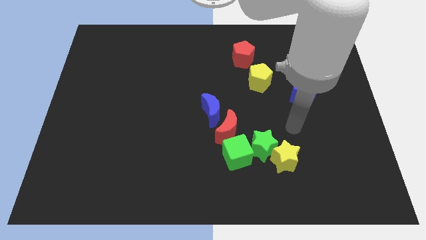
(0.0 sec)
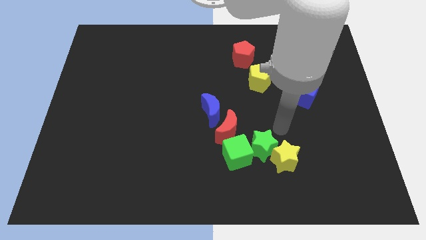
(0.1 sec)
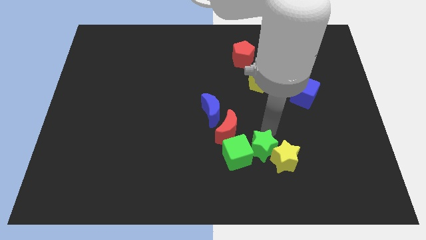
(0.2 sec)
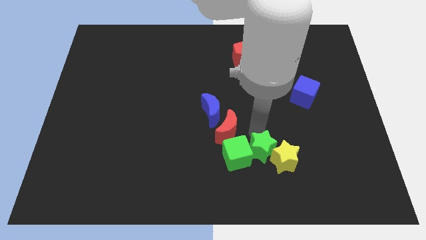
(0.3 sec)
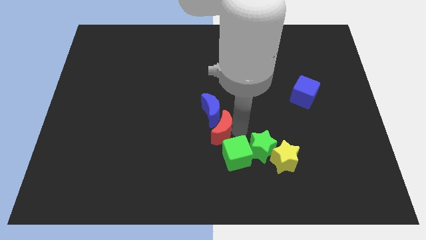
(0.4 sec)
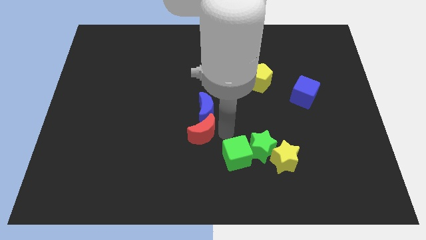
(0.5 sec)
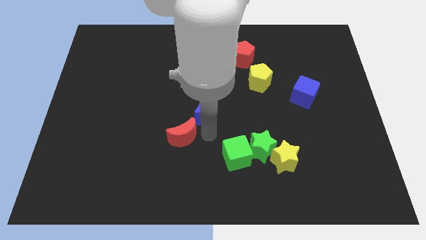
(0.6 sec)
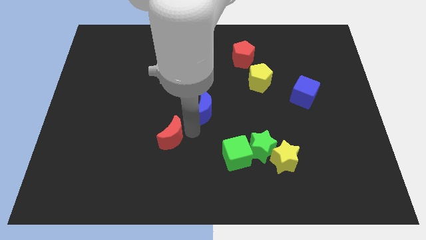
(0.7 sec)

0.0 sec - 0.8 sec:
pull the blue moon apart from the red moon

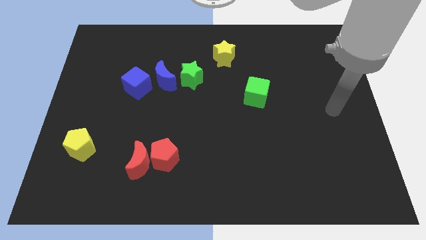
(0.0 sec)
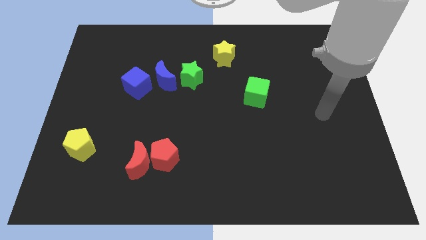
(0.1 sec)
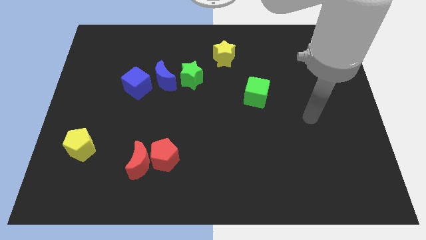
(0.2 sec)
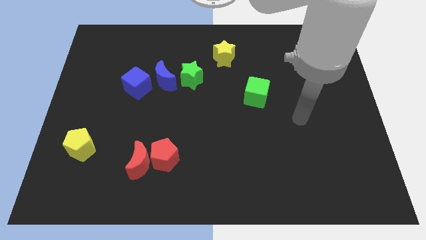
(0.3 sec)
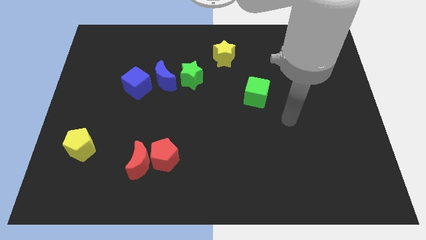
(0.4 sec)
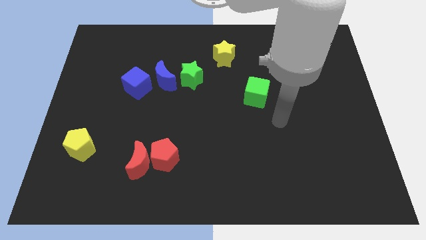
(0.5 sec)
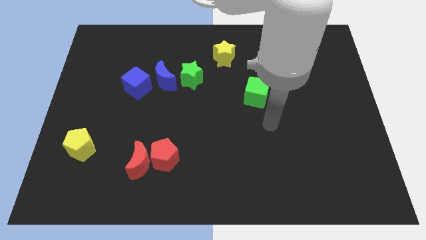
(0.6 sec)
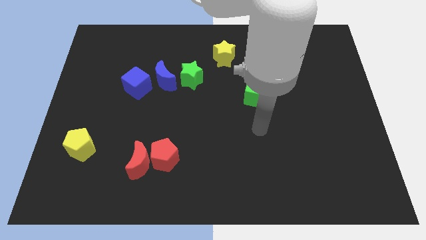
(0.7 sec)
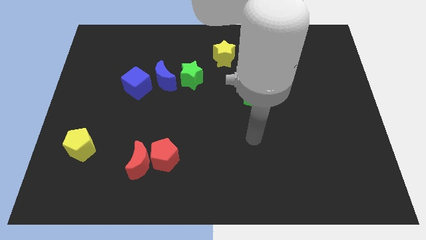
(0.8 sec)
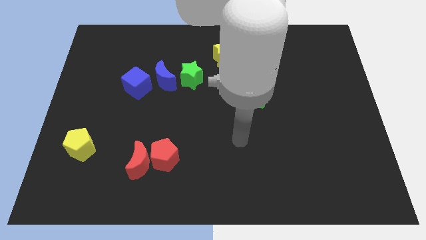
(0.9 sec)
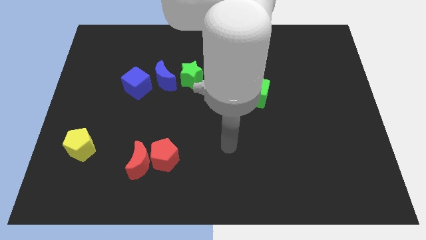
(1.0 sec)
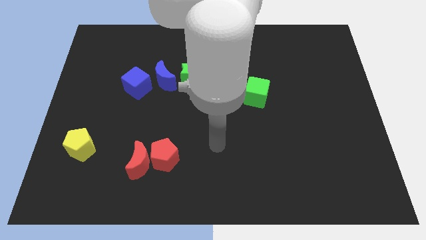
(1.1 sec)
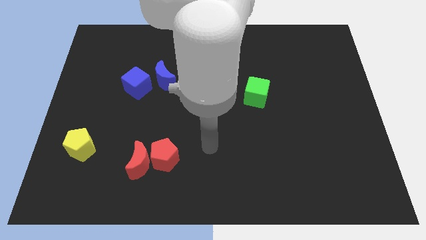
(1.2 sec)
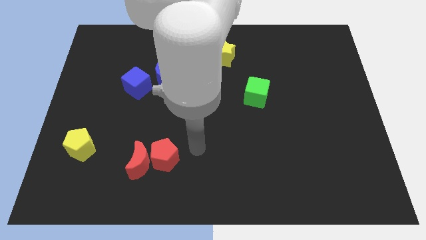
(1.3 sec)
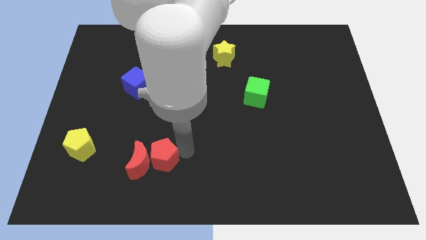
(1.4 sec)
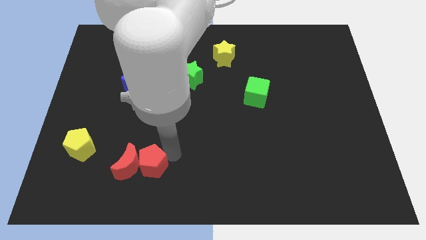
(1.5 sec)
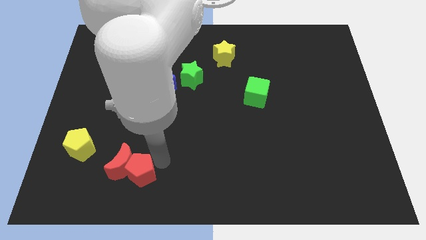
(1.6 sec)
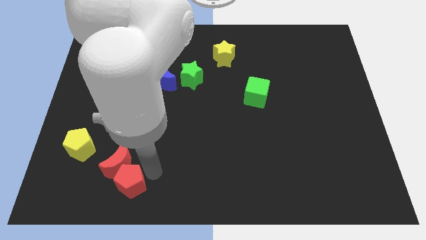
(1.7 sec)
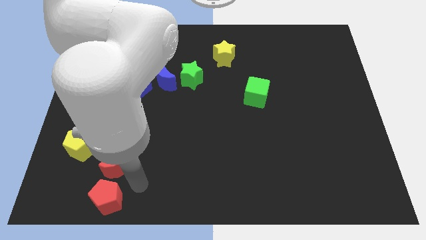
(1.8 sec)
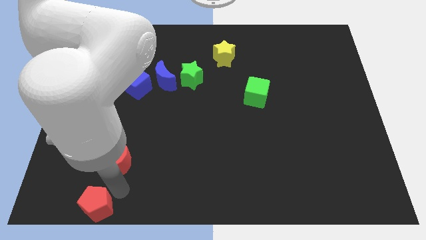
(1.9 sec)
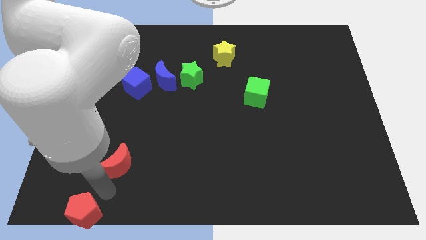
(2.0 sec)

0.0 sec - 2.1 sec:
separate the red moon from the red pentagon

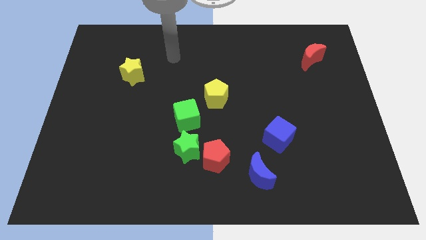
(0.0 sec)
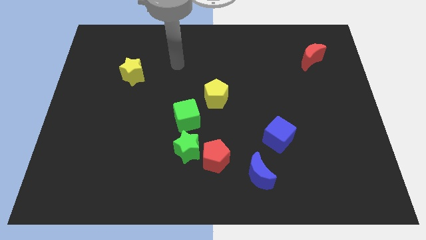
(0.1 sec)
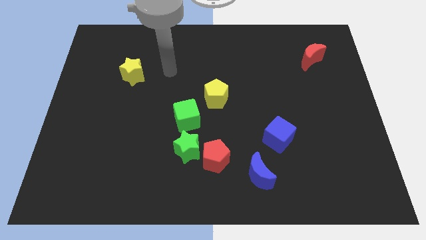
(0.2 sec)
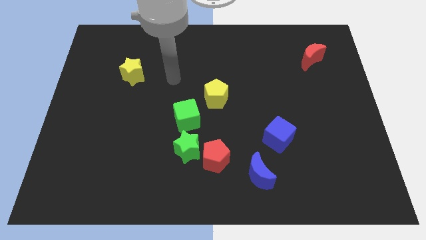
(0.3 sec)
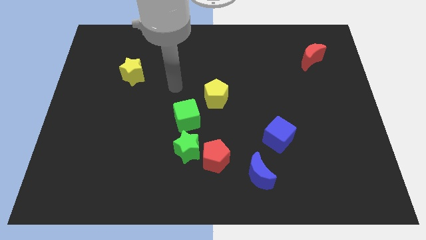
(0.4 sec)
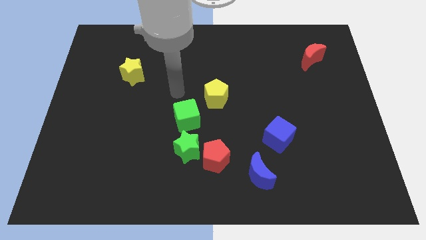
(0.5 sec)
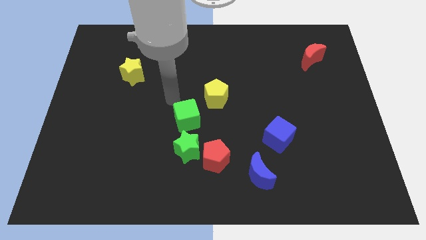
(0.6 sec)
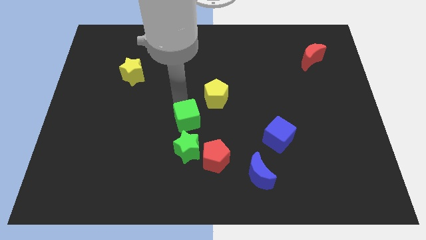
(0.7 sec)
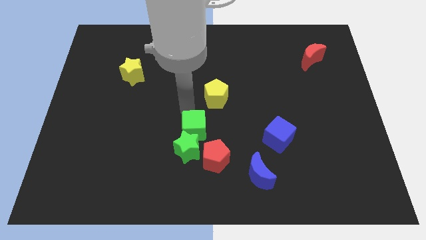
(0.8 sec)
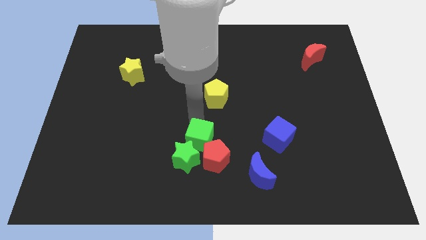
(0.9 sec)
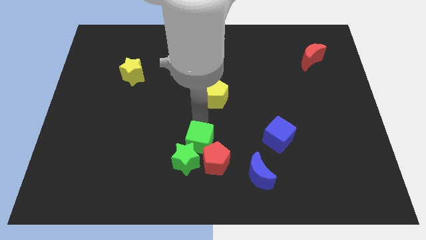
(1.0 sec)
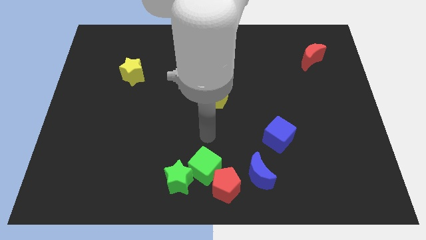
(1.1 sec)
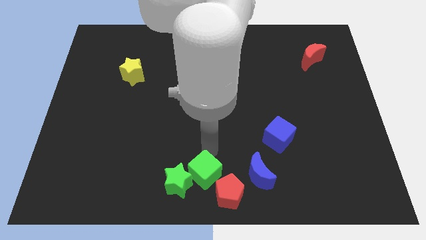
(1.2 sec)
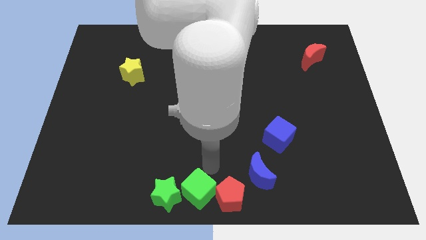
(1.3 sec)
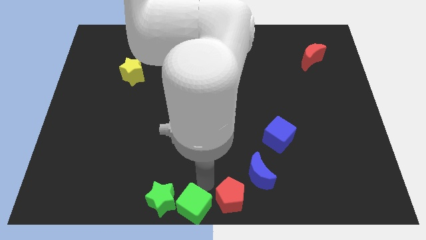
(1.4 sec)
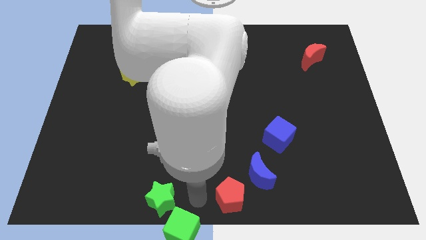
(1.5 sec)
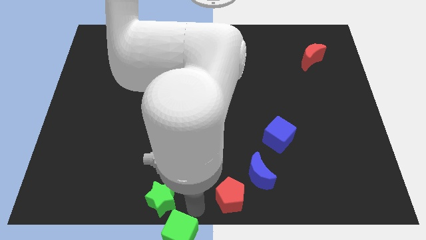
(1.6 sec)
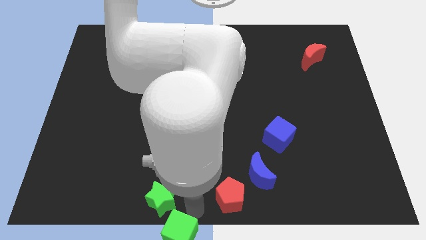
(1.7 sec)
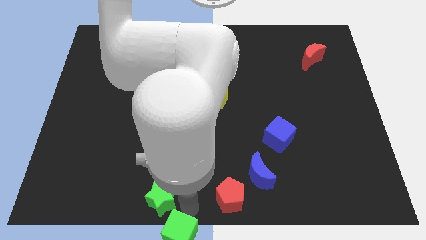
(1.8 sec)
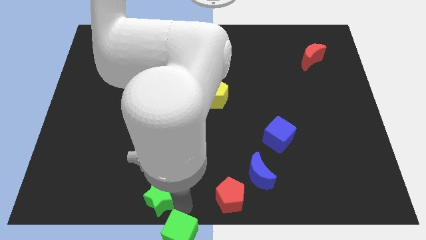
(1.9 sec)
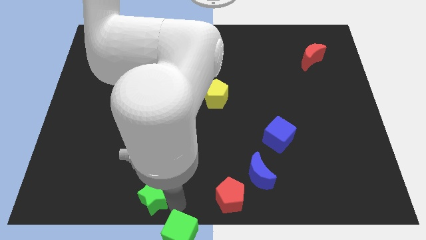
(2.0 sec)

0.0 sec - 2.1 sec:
separate the green star from the red pentagon and green cube

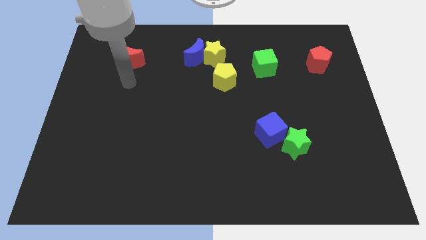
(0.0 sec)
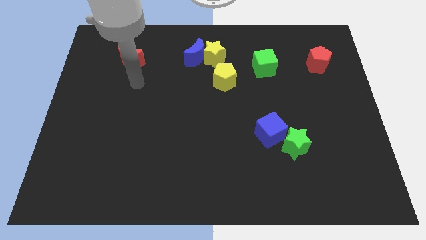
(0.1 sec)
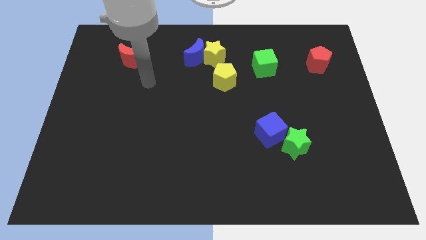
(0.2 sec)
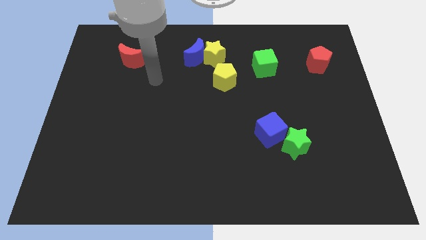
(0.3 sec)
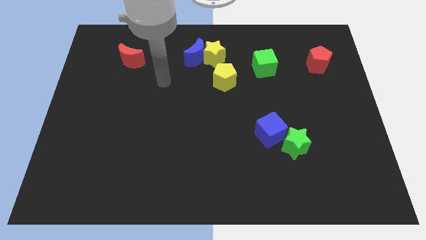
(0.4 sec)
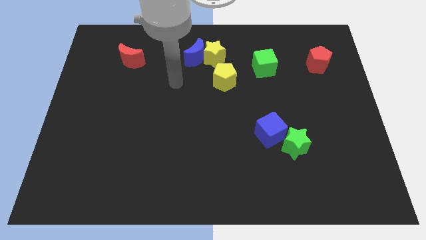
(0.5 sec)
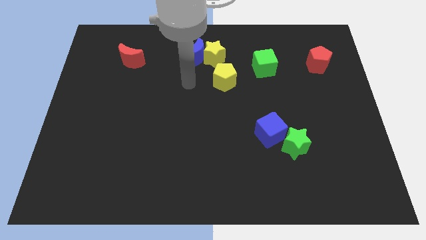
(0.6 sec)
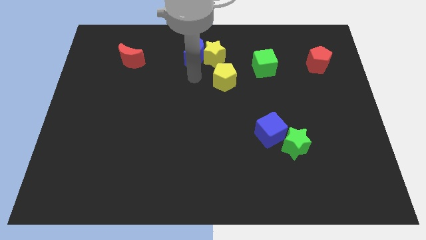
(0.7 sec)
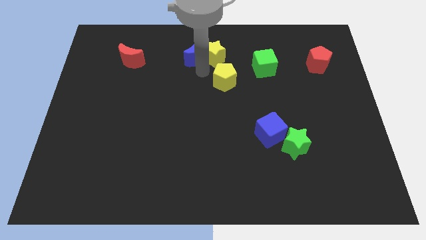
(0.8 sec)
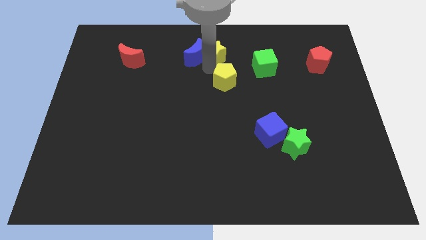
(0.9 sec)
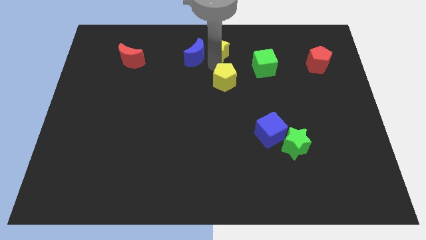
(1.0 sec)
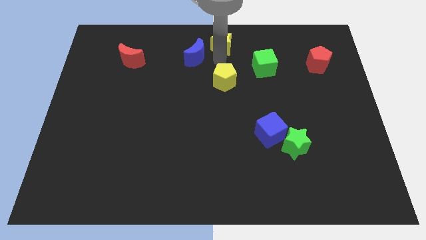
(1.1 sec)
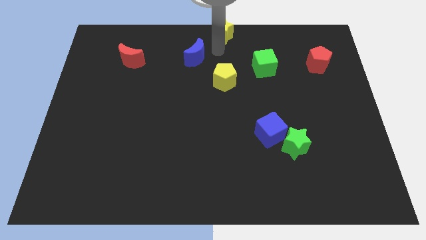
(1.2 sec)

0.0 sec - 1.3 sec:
separate the blue moon from the yellow star

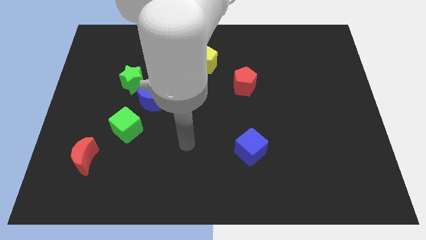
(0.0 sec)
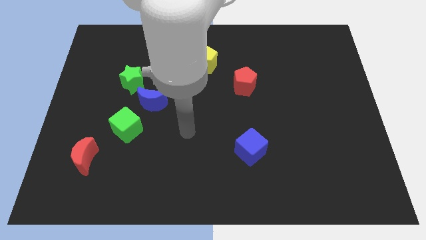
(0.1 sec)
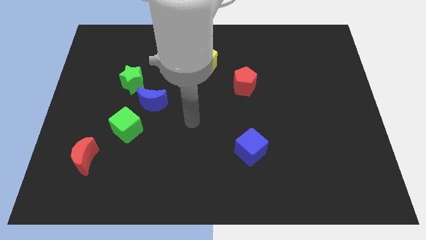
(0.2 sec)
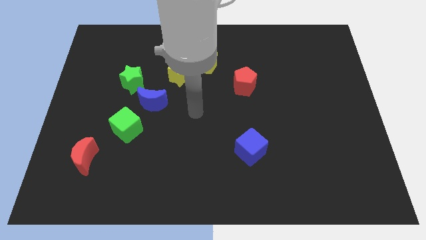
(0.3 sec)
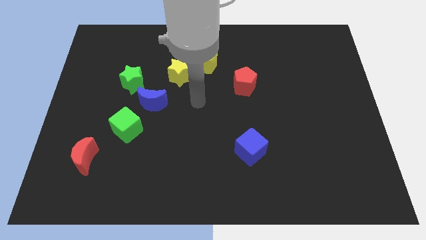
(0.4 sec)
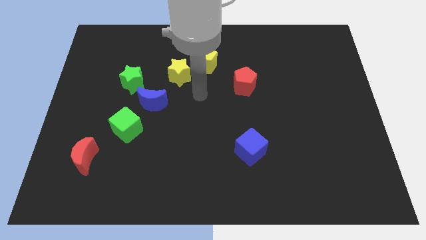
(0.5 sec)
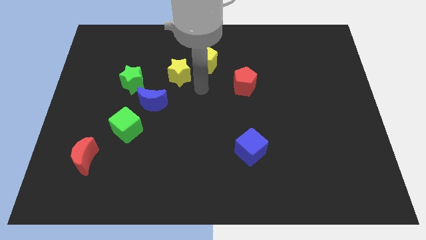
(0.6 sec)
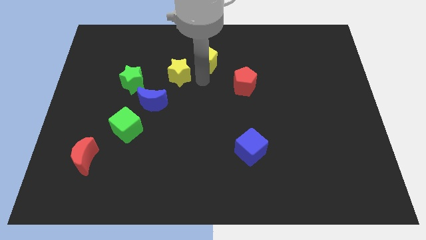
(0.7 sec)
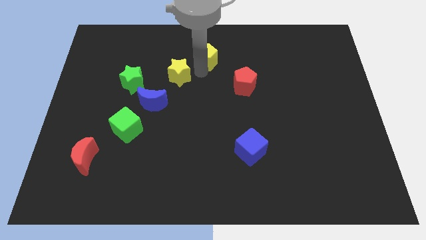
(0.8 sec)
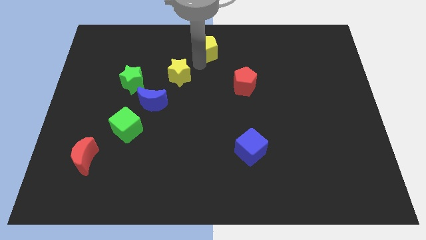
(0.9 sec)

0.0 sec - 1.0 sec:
pull the yellow star apart from the yellow pentagon

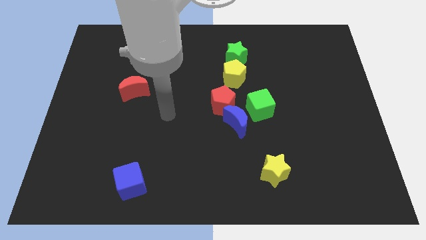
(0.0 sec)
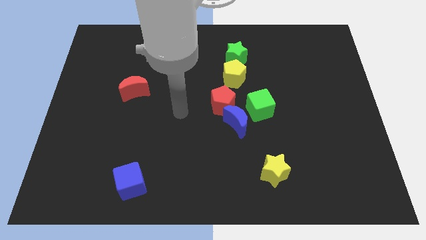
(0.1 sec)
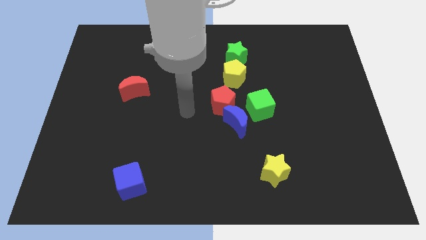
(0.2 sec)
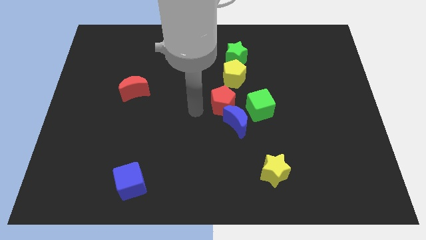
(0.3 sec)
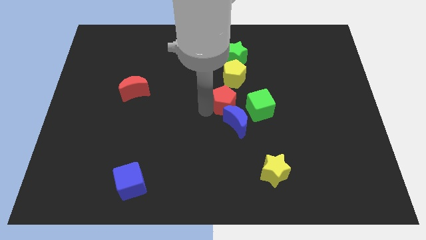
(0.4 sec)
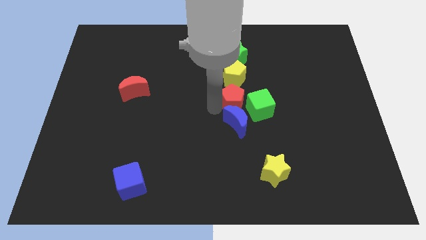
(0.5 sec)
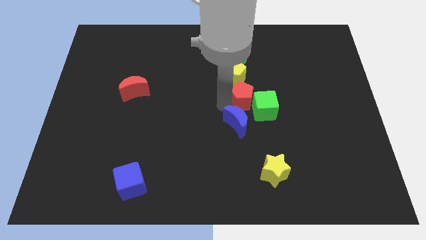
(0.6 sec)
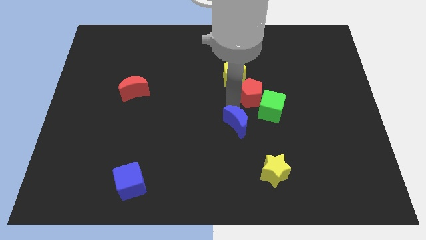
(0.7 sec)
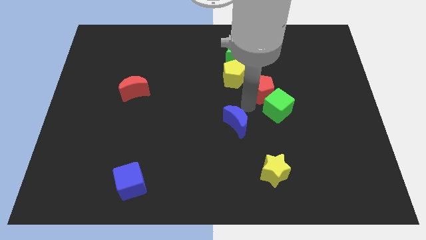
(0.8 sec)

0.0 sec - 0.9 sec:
pull the blue moon apart from the red pentagon and green cube

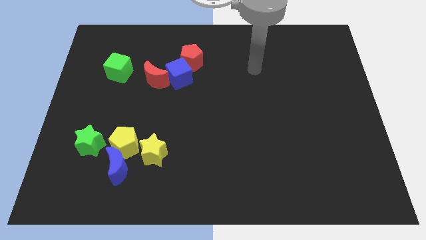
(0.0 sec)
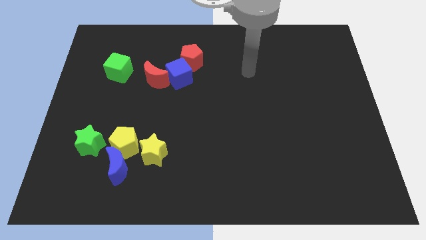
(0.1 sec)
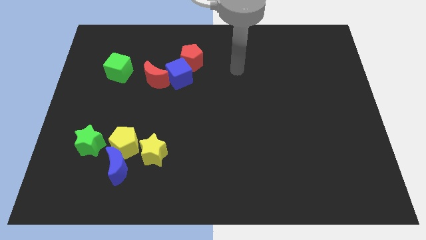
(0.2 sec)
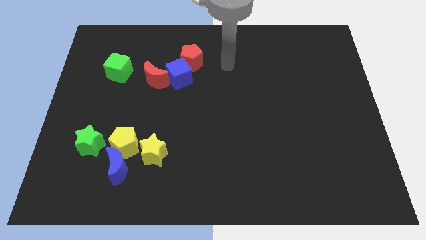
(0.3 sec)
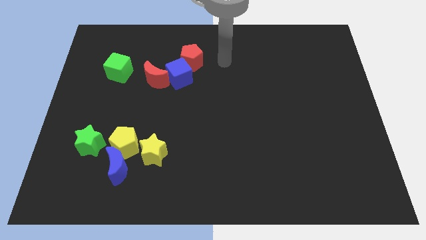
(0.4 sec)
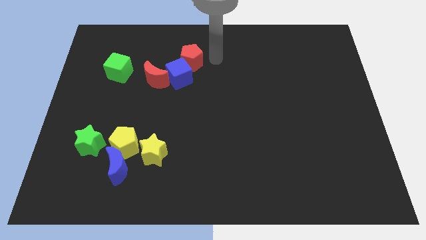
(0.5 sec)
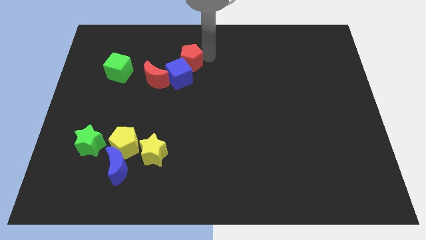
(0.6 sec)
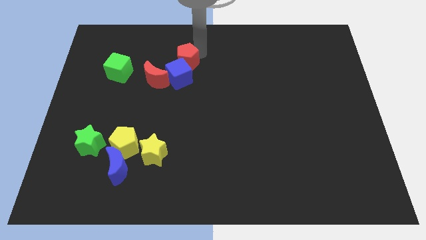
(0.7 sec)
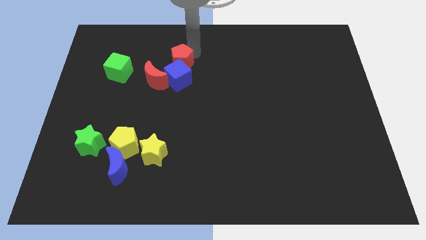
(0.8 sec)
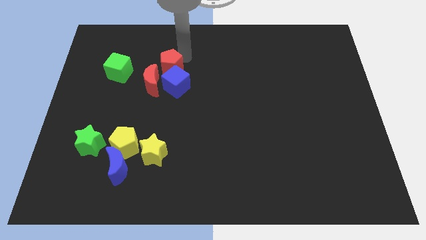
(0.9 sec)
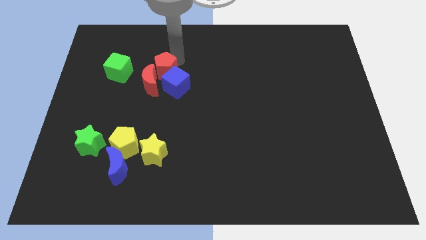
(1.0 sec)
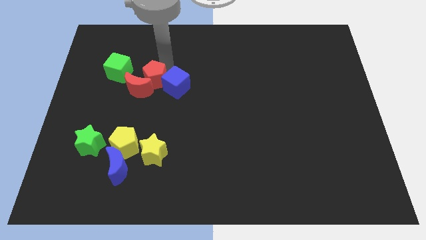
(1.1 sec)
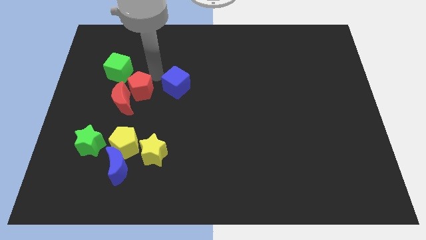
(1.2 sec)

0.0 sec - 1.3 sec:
separate the blue cube from the red moon and red pentagon
